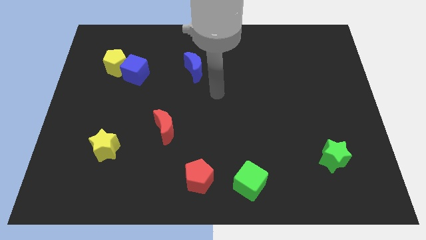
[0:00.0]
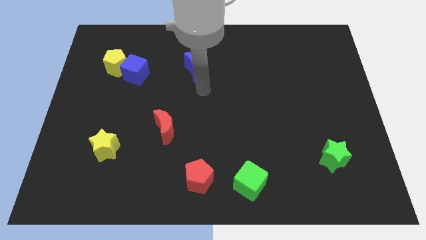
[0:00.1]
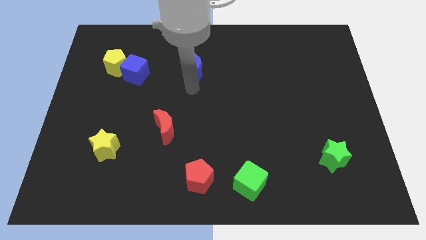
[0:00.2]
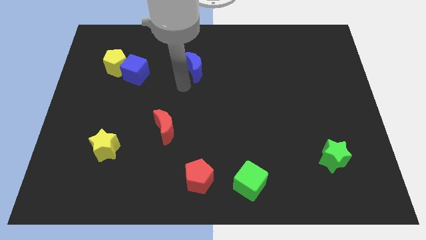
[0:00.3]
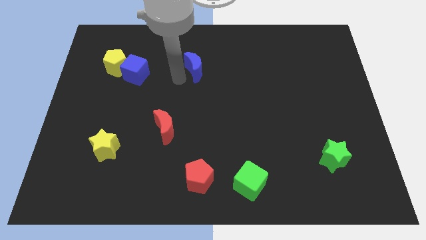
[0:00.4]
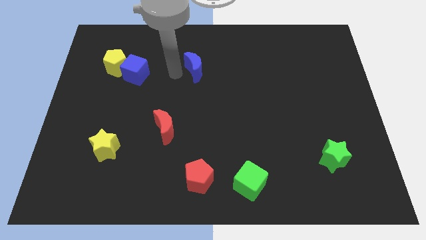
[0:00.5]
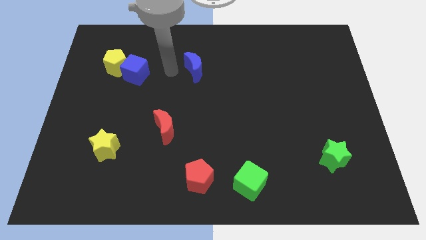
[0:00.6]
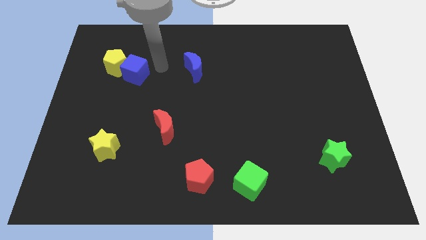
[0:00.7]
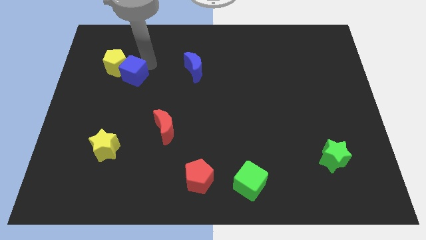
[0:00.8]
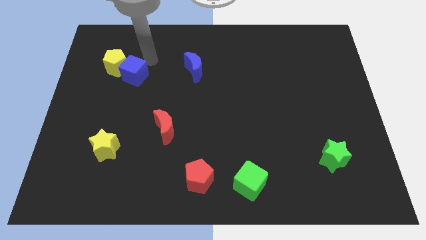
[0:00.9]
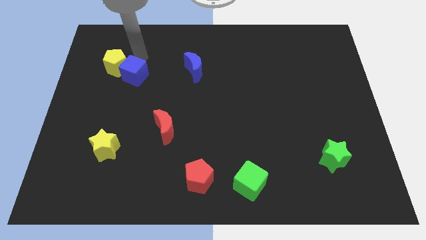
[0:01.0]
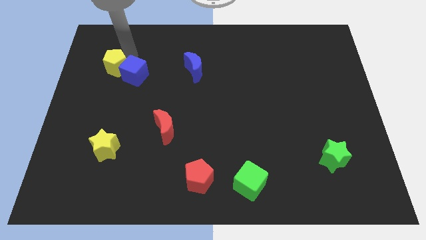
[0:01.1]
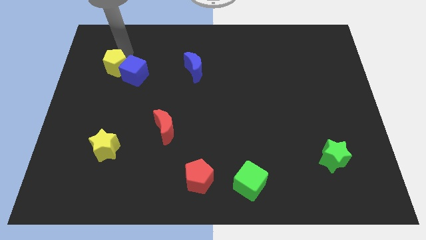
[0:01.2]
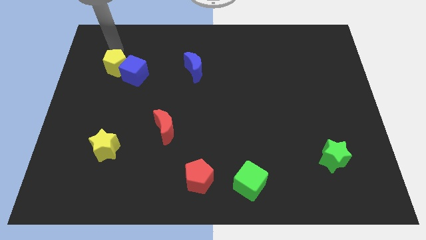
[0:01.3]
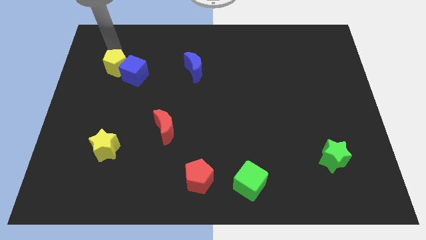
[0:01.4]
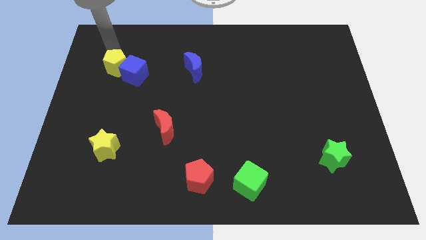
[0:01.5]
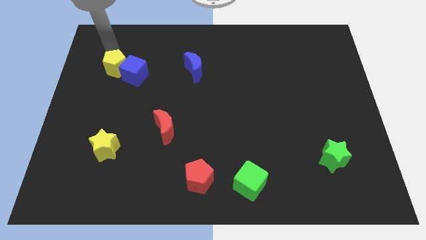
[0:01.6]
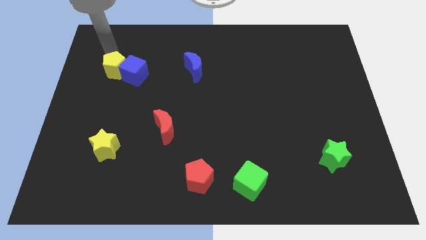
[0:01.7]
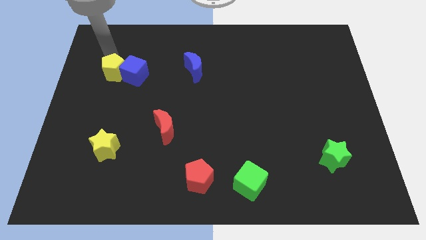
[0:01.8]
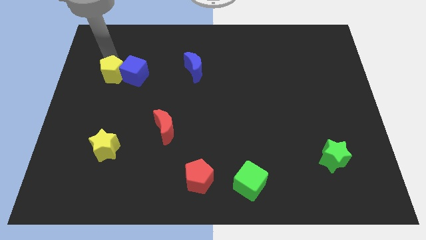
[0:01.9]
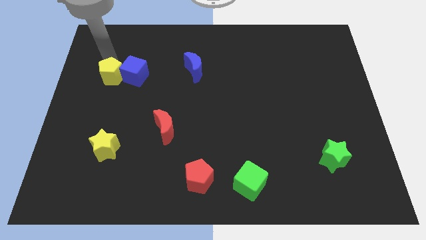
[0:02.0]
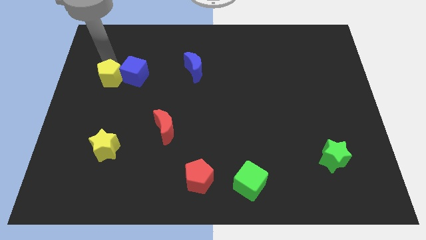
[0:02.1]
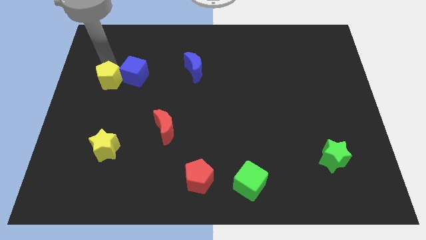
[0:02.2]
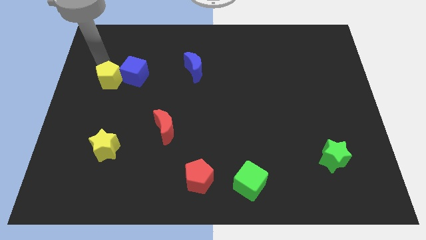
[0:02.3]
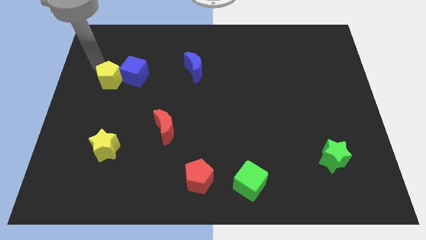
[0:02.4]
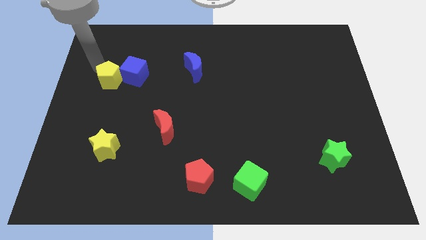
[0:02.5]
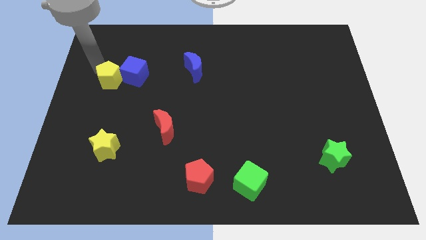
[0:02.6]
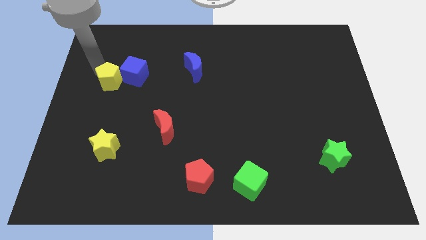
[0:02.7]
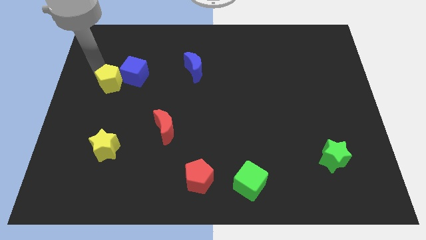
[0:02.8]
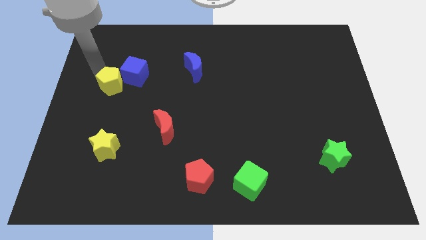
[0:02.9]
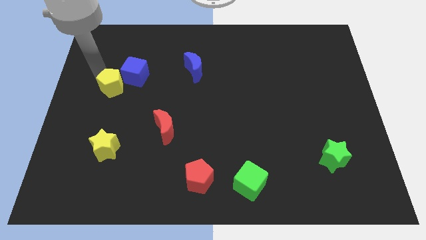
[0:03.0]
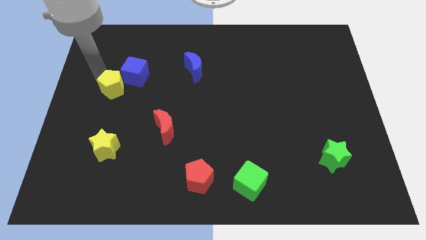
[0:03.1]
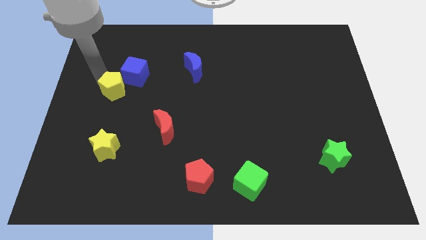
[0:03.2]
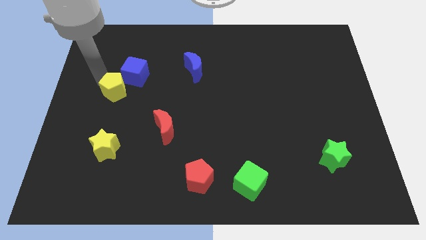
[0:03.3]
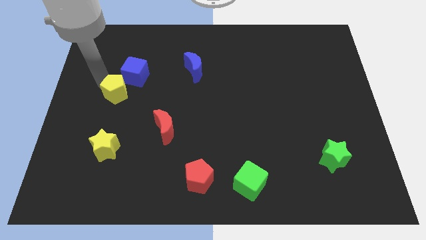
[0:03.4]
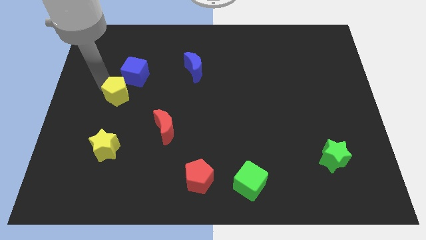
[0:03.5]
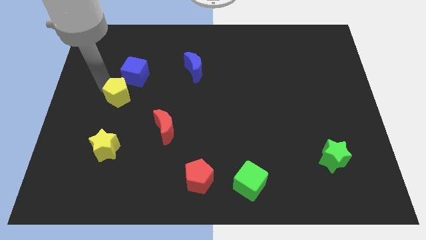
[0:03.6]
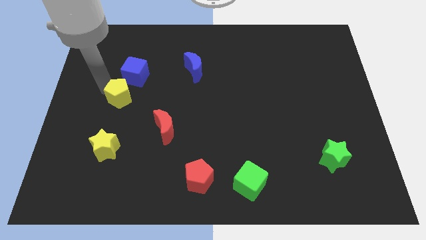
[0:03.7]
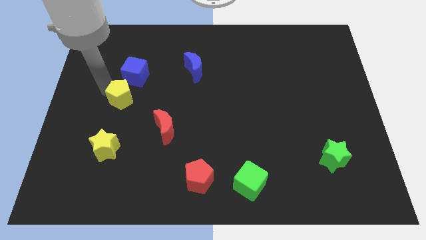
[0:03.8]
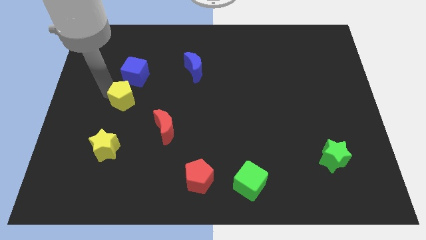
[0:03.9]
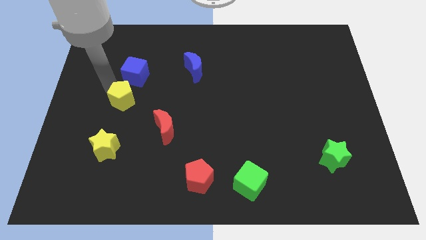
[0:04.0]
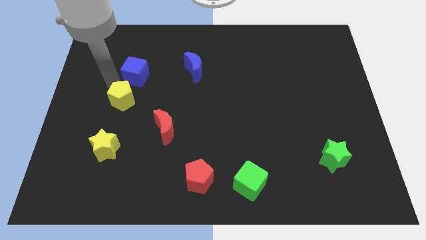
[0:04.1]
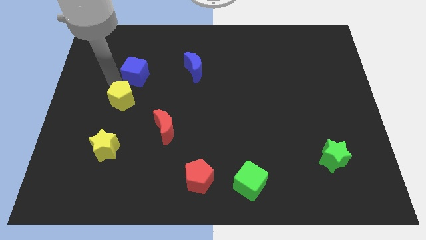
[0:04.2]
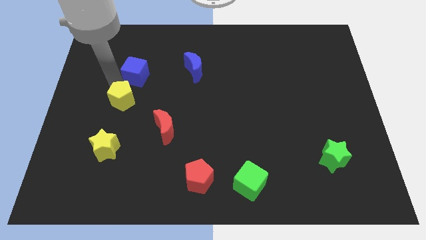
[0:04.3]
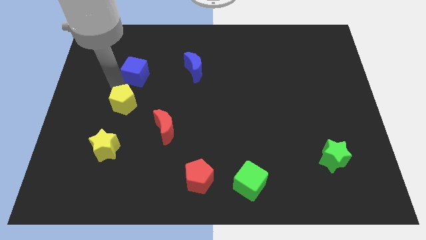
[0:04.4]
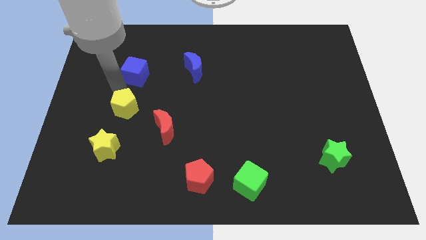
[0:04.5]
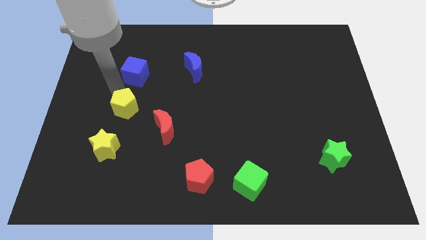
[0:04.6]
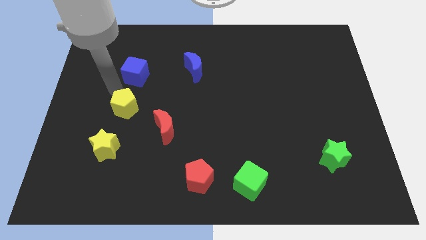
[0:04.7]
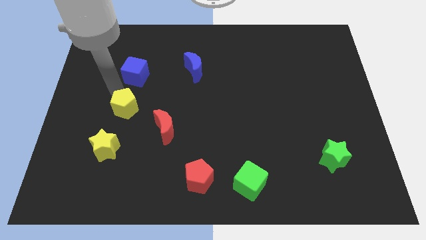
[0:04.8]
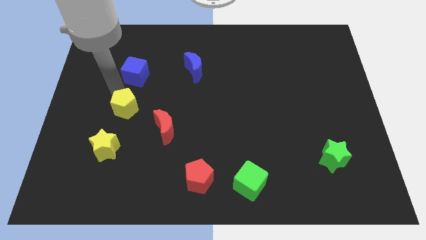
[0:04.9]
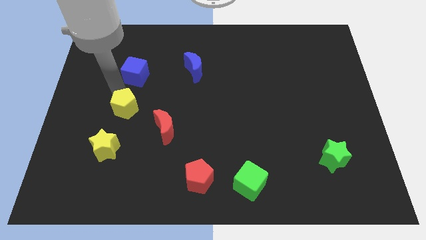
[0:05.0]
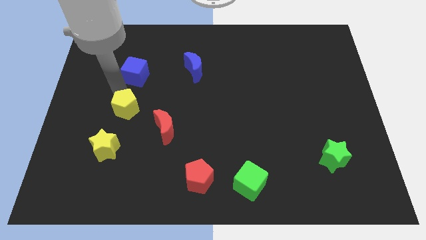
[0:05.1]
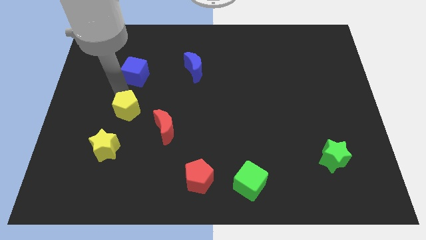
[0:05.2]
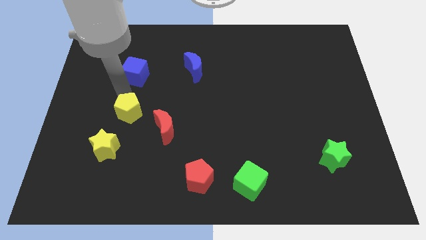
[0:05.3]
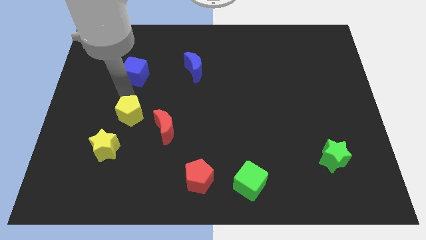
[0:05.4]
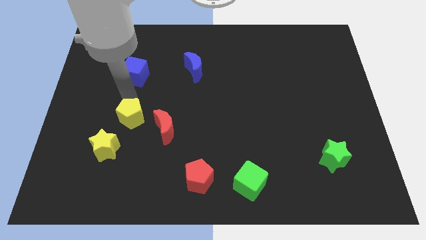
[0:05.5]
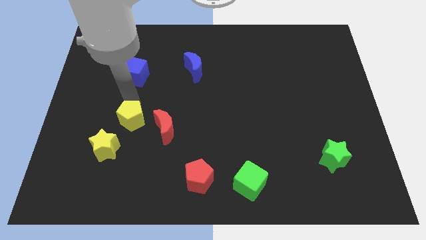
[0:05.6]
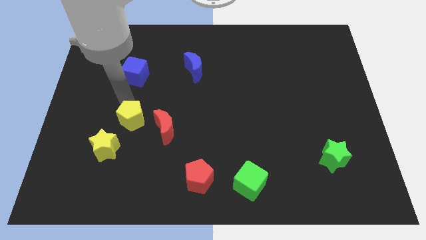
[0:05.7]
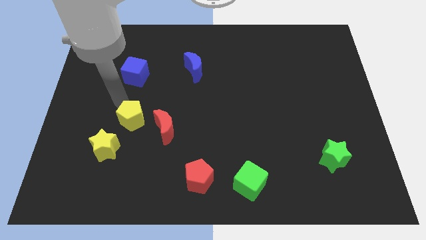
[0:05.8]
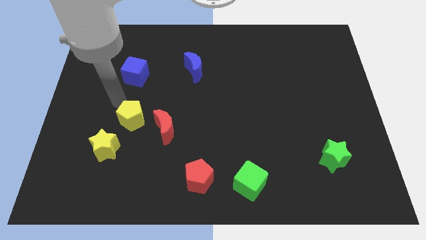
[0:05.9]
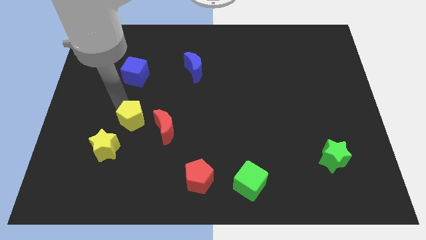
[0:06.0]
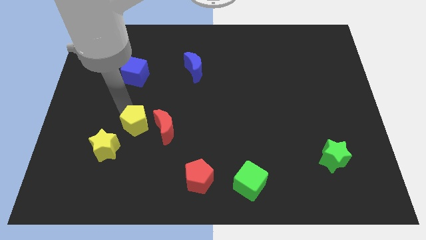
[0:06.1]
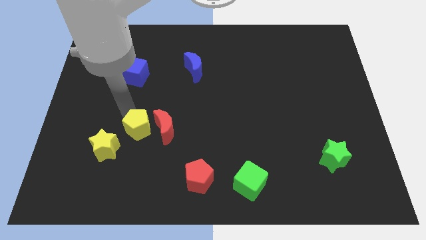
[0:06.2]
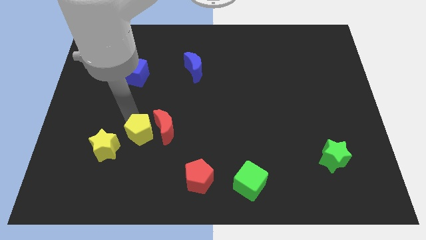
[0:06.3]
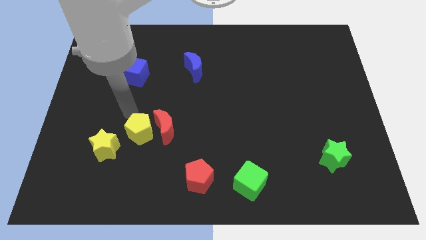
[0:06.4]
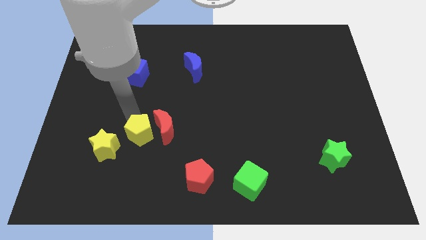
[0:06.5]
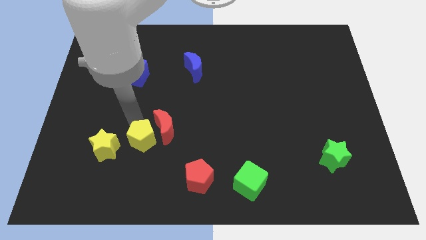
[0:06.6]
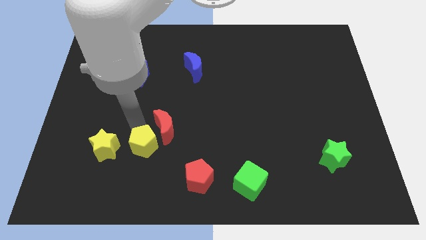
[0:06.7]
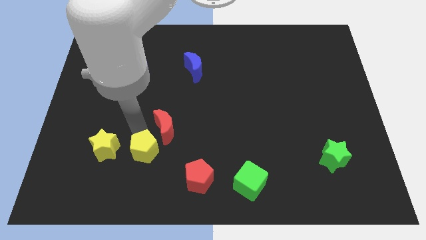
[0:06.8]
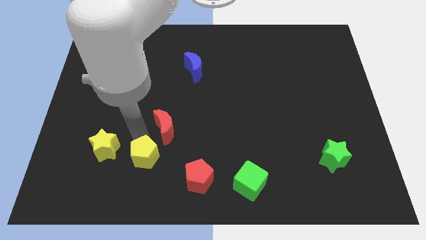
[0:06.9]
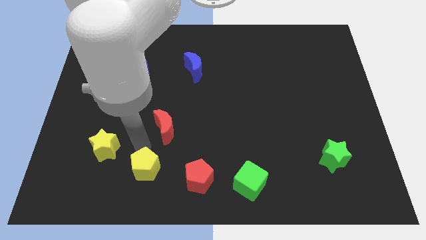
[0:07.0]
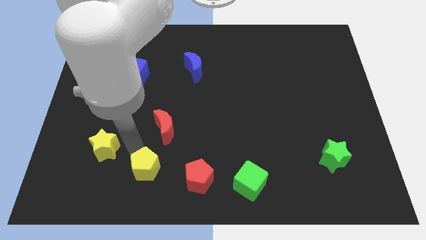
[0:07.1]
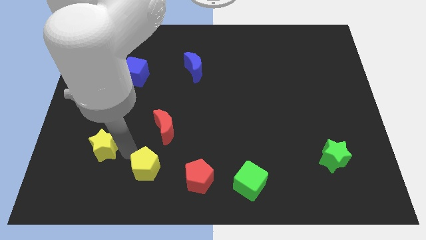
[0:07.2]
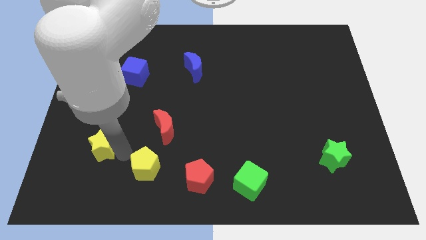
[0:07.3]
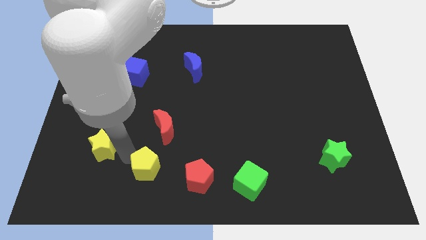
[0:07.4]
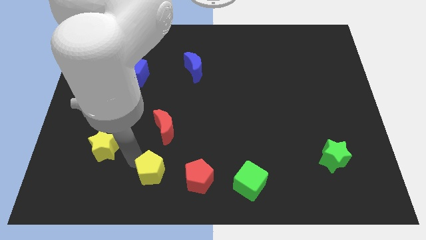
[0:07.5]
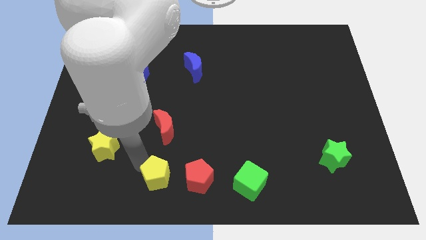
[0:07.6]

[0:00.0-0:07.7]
put the yellow pentagon to the bottom side
